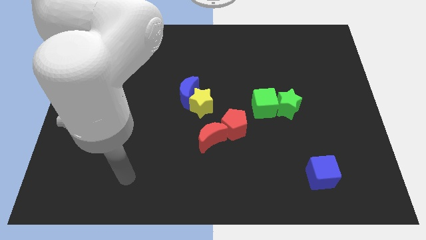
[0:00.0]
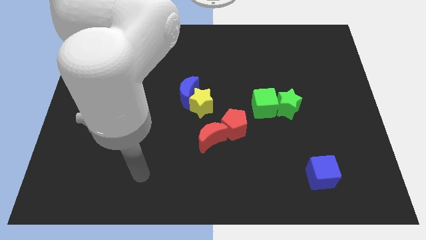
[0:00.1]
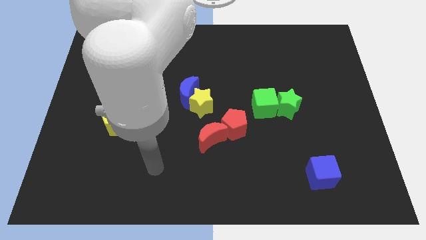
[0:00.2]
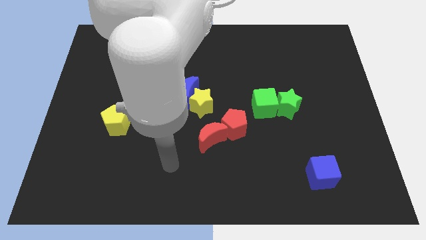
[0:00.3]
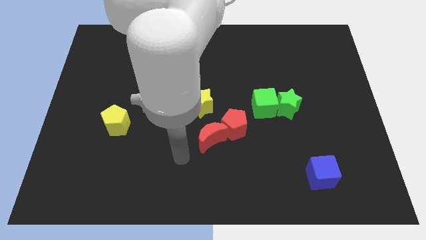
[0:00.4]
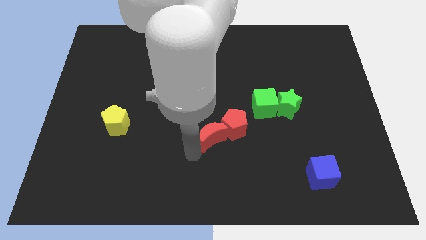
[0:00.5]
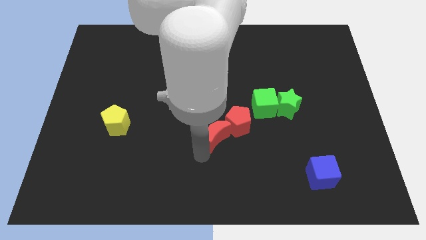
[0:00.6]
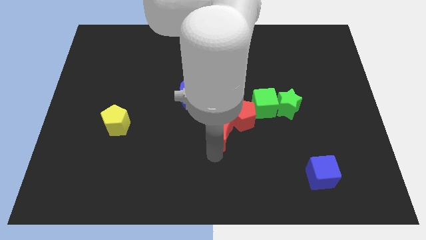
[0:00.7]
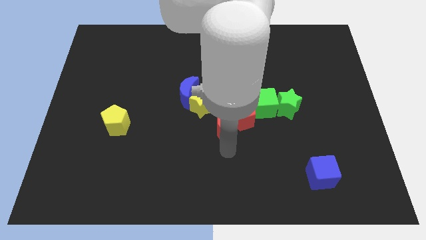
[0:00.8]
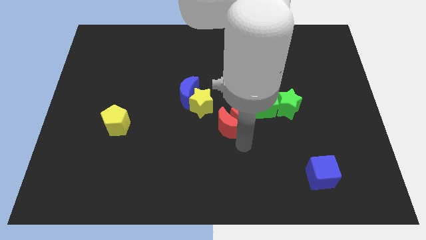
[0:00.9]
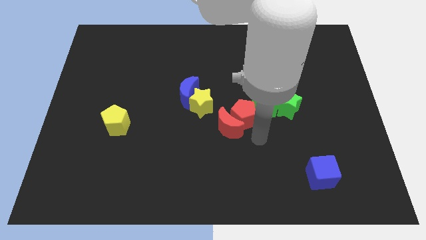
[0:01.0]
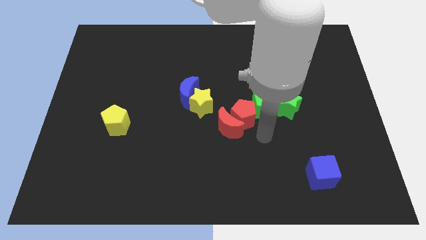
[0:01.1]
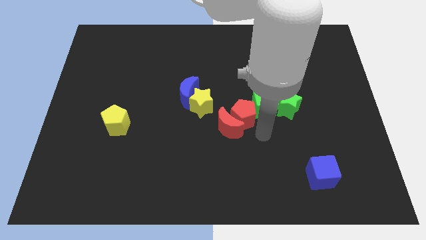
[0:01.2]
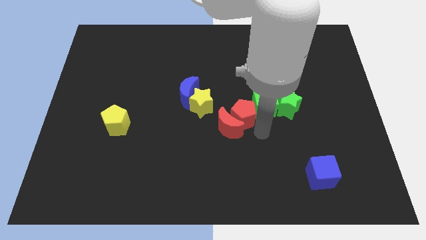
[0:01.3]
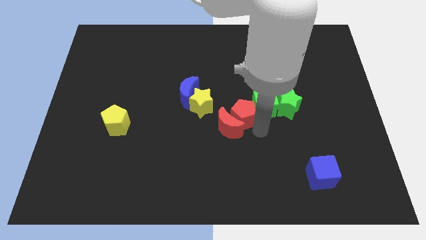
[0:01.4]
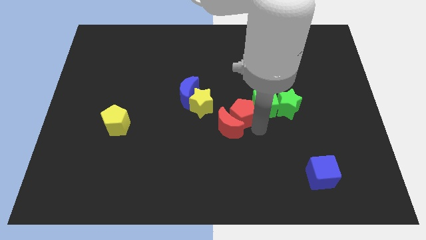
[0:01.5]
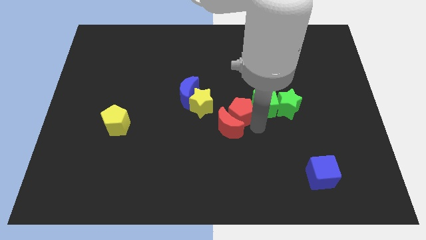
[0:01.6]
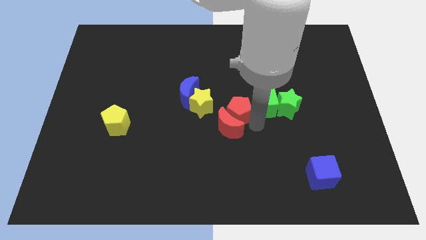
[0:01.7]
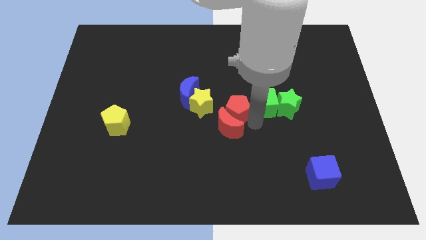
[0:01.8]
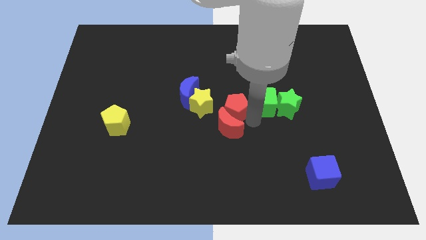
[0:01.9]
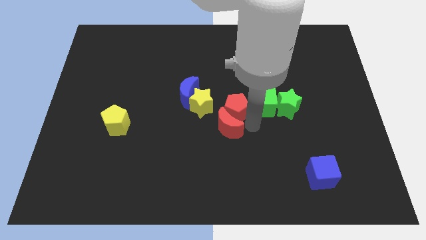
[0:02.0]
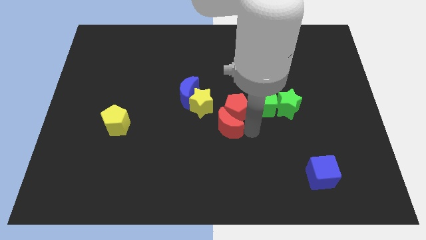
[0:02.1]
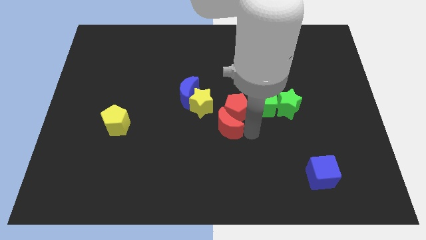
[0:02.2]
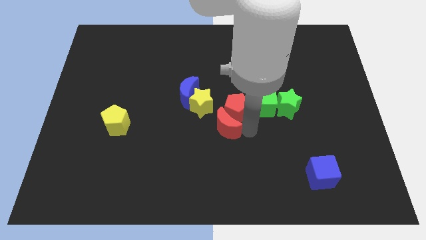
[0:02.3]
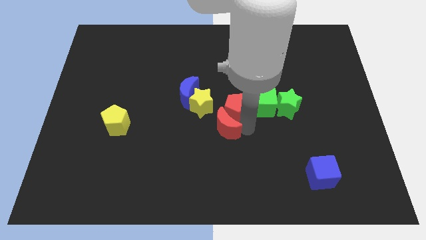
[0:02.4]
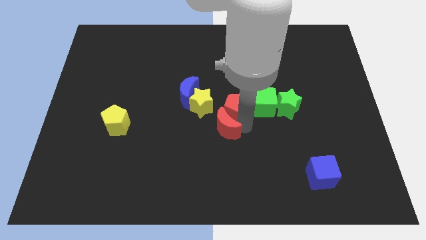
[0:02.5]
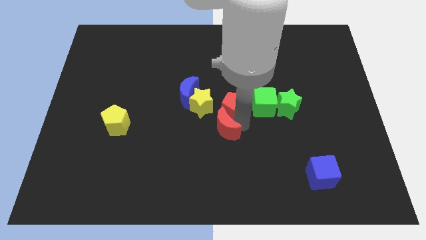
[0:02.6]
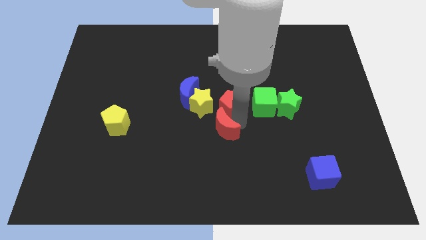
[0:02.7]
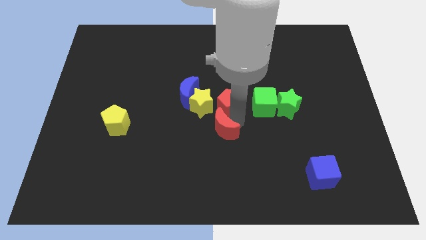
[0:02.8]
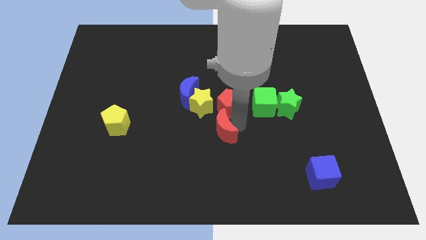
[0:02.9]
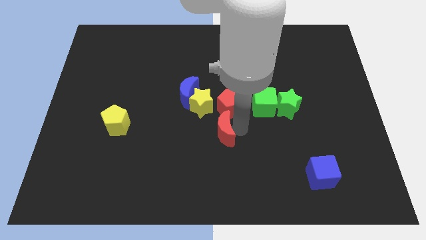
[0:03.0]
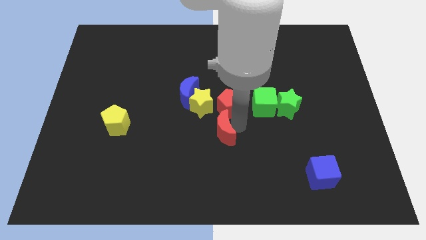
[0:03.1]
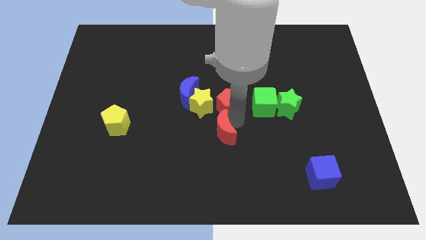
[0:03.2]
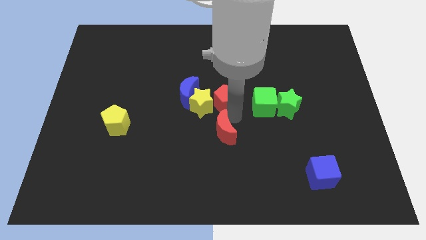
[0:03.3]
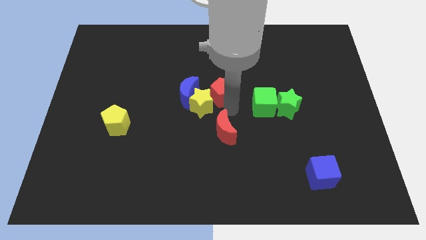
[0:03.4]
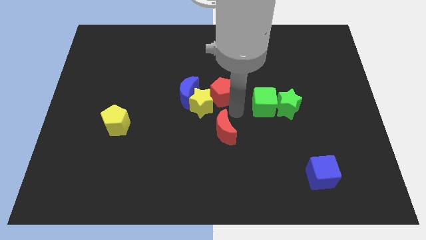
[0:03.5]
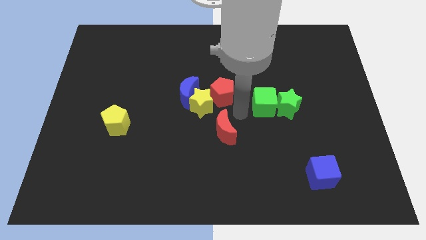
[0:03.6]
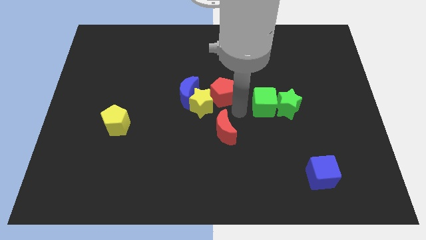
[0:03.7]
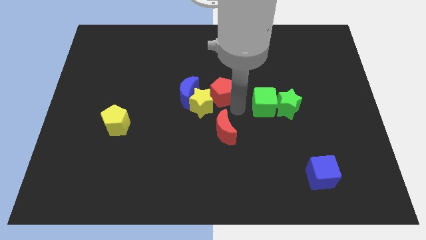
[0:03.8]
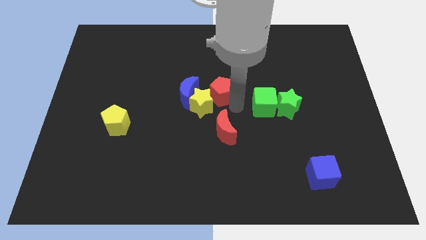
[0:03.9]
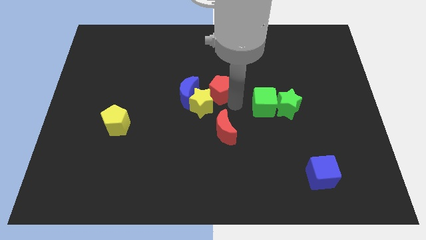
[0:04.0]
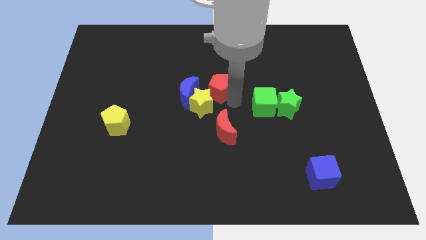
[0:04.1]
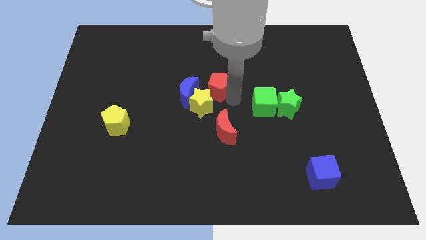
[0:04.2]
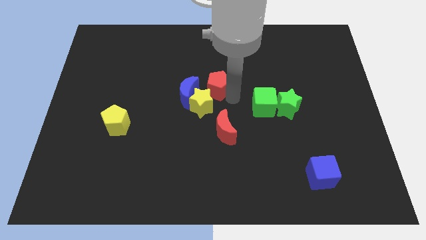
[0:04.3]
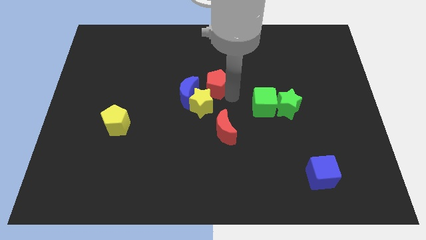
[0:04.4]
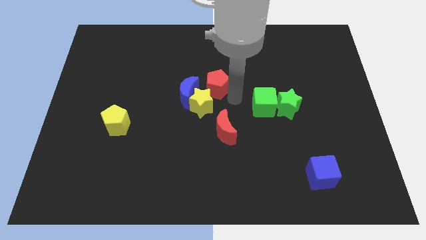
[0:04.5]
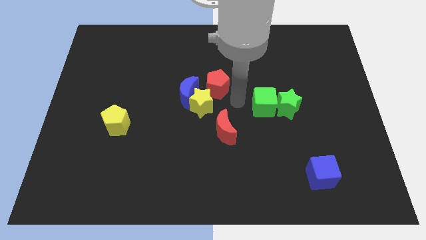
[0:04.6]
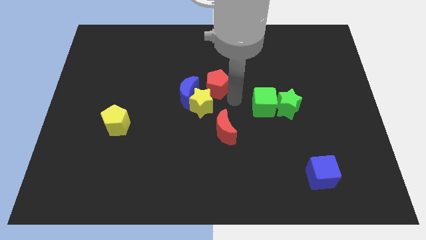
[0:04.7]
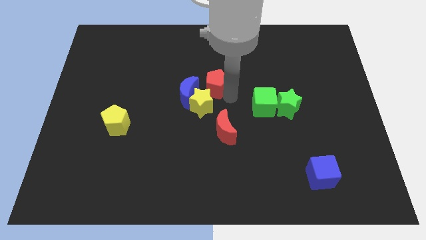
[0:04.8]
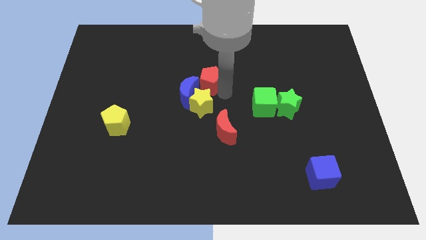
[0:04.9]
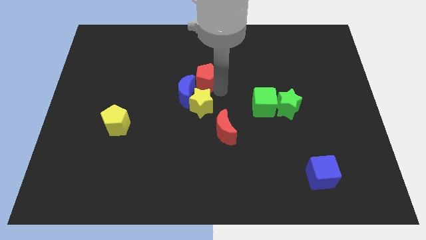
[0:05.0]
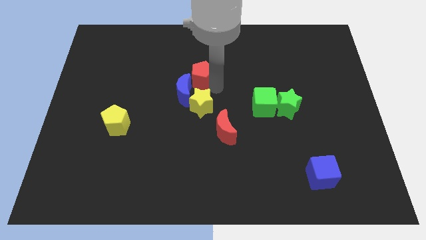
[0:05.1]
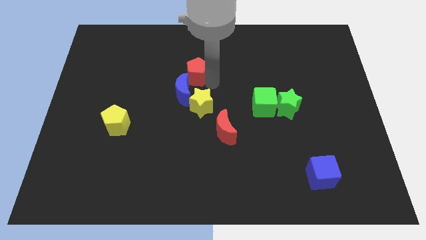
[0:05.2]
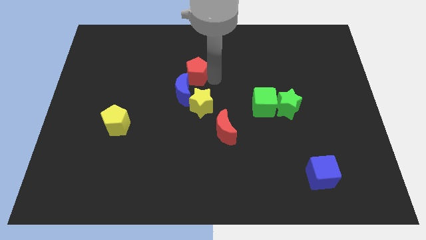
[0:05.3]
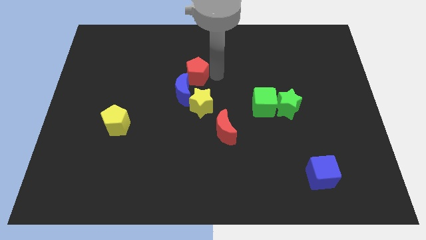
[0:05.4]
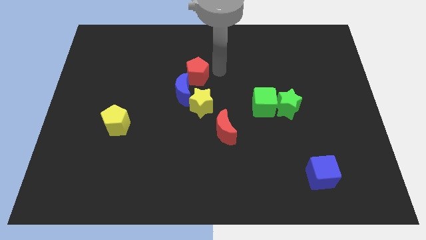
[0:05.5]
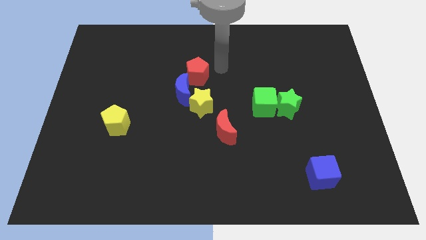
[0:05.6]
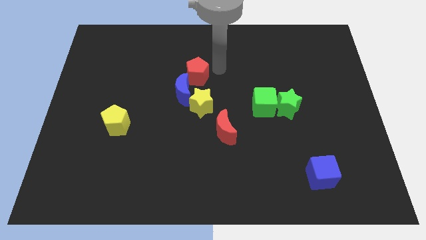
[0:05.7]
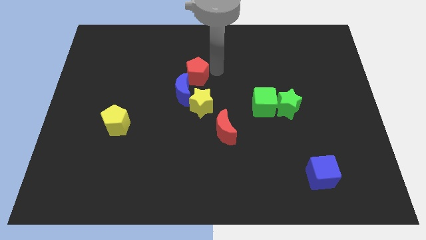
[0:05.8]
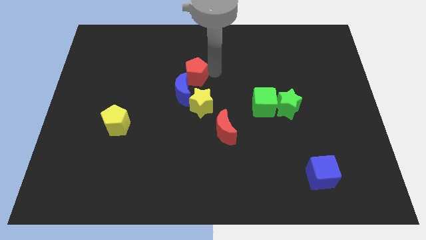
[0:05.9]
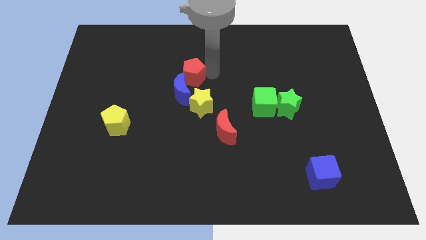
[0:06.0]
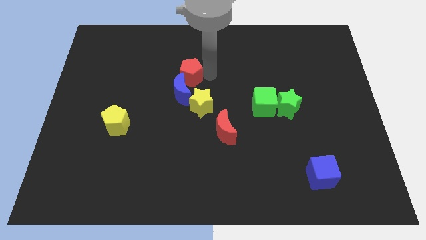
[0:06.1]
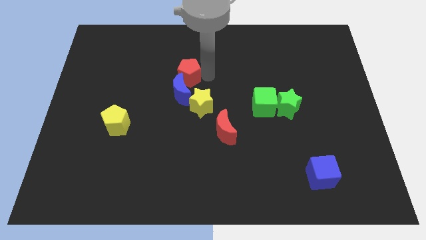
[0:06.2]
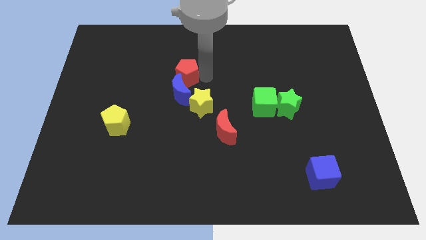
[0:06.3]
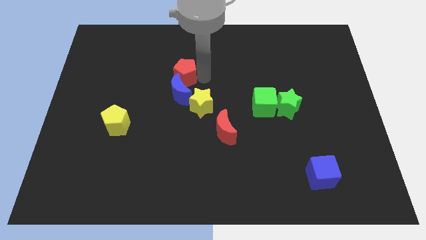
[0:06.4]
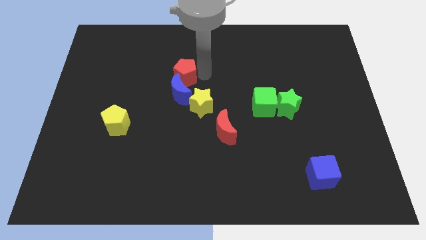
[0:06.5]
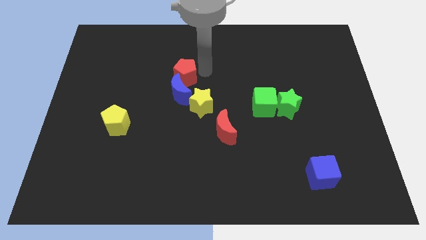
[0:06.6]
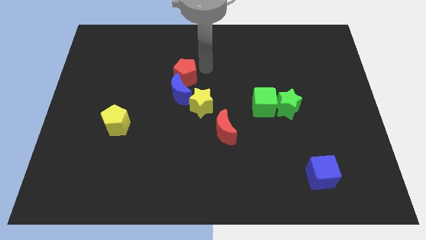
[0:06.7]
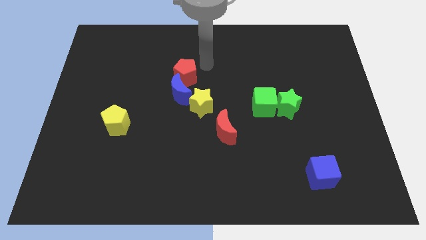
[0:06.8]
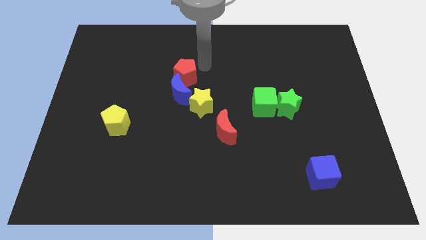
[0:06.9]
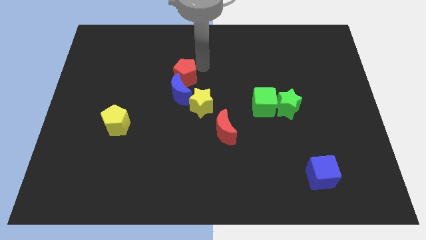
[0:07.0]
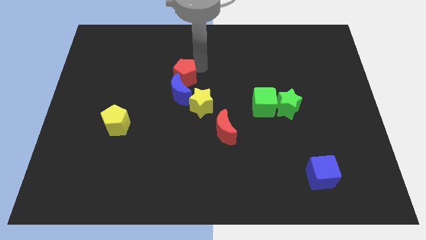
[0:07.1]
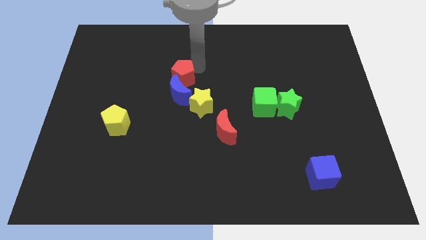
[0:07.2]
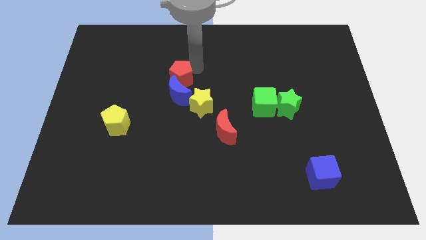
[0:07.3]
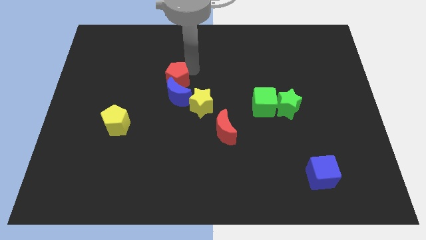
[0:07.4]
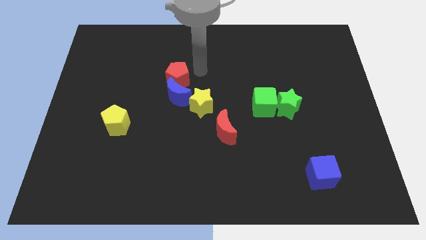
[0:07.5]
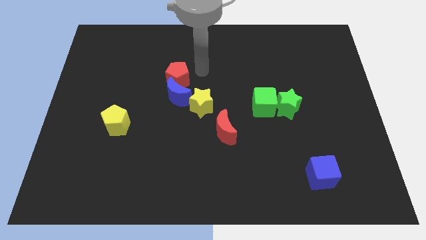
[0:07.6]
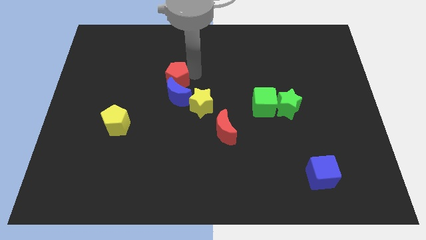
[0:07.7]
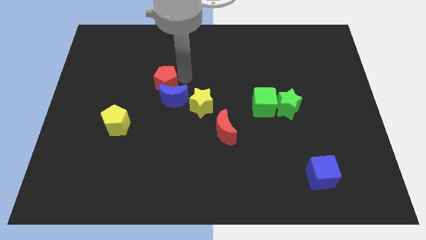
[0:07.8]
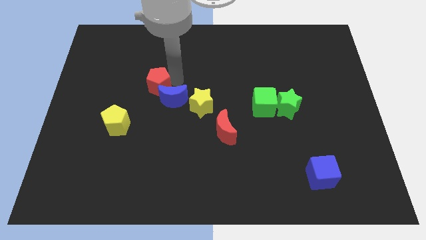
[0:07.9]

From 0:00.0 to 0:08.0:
put the red pentagon just left of the blue moon

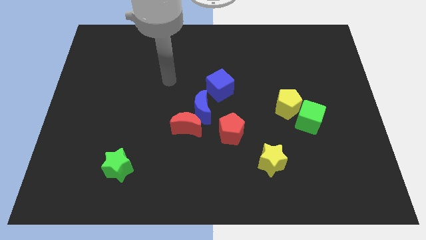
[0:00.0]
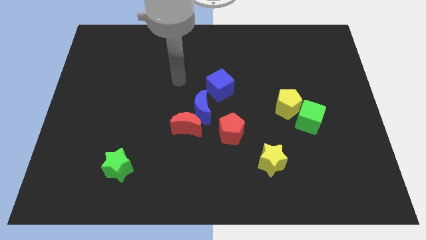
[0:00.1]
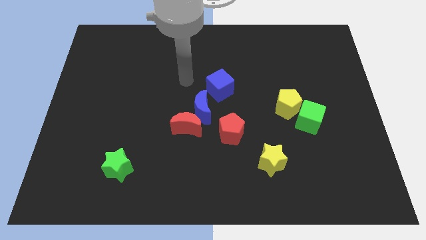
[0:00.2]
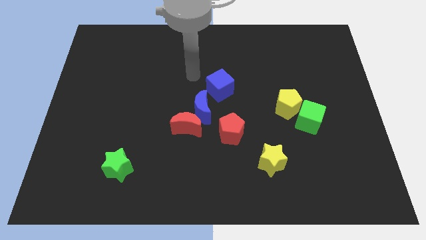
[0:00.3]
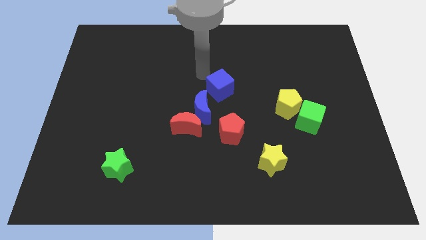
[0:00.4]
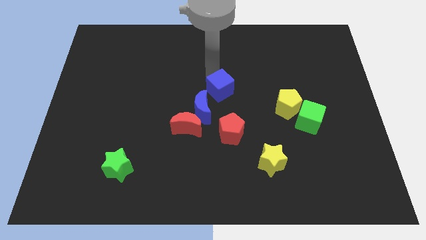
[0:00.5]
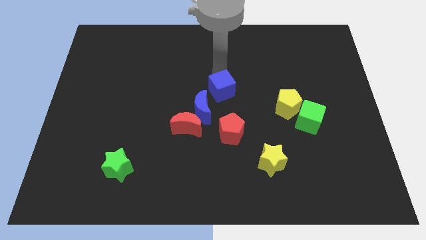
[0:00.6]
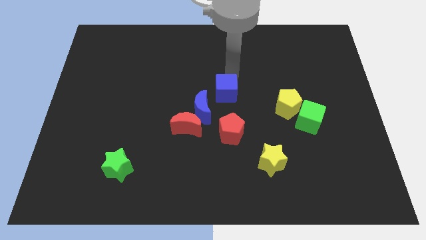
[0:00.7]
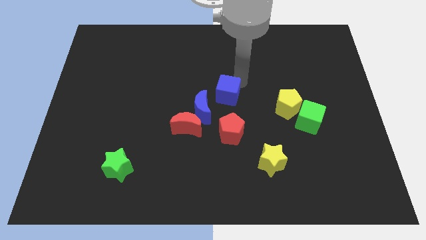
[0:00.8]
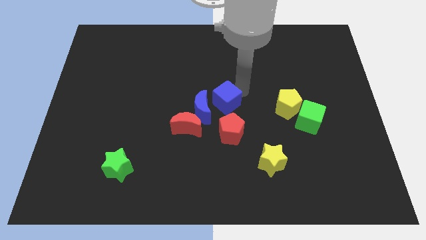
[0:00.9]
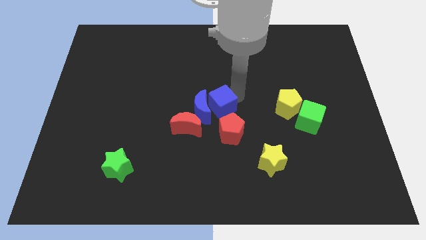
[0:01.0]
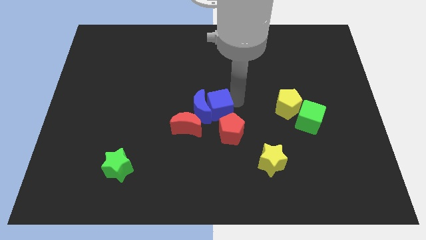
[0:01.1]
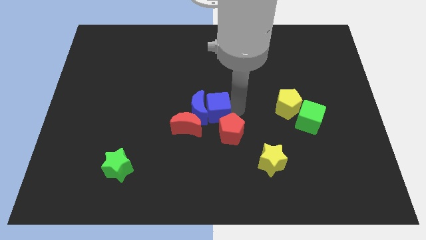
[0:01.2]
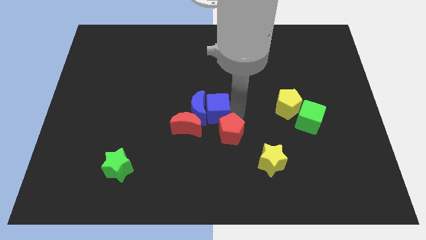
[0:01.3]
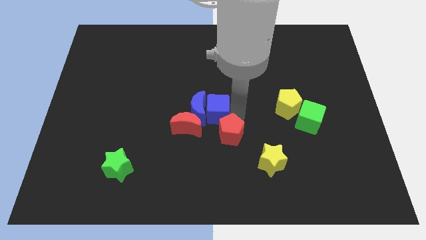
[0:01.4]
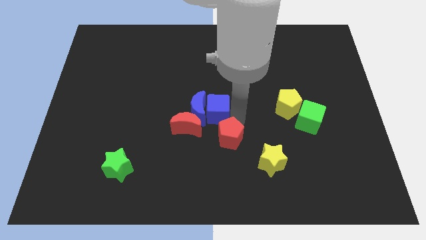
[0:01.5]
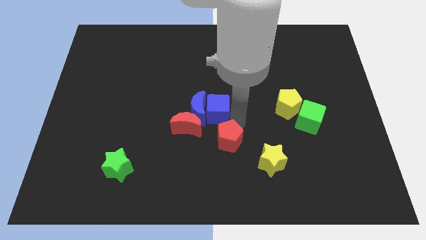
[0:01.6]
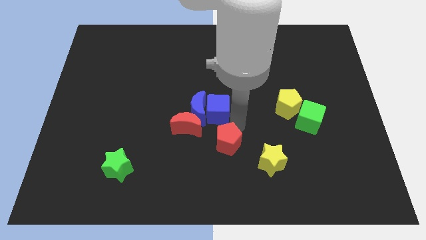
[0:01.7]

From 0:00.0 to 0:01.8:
put the red pentagon just left of the yellow star
